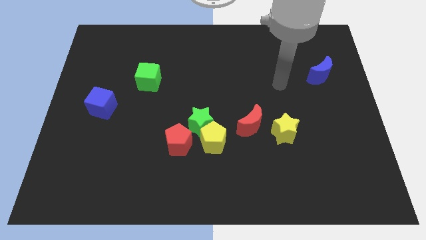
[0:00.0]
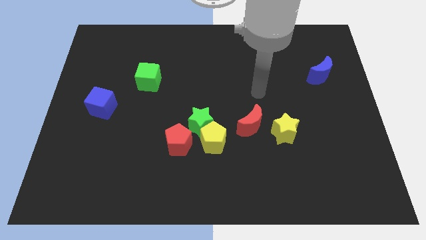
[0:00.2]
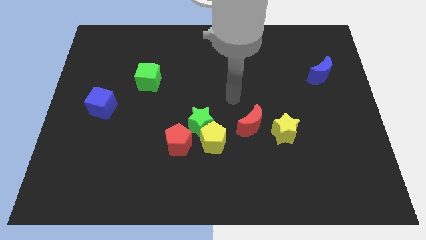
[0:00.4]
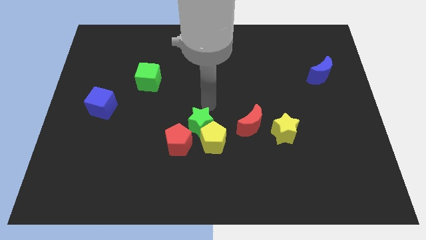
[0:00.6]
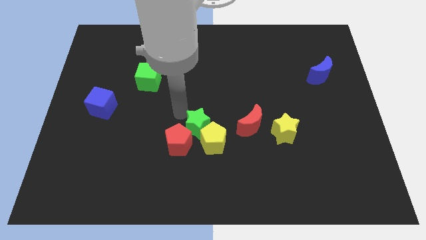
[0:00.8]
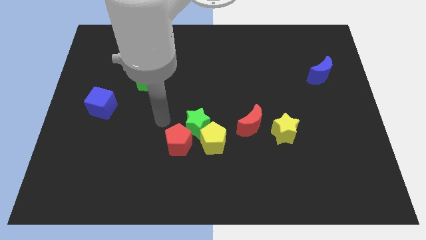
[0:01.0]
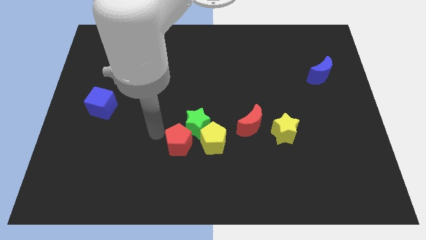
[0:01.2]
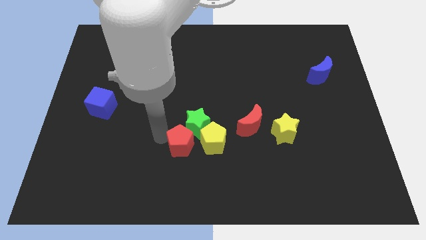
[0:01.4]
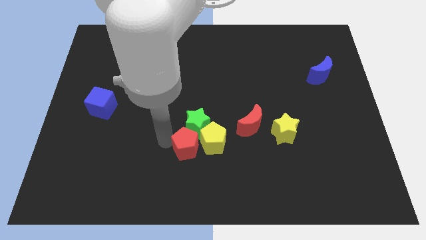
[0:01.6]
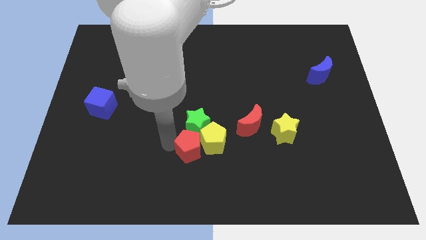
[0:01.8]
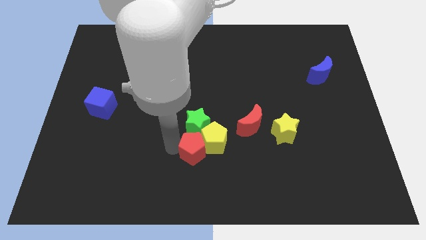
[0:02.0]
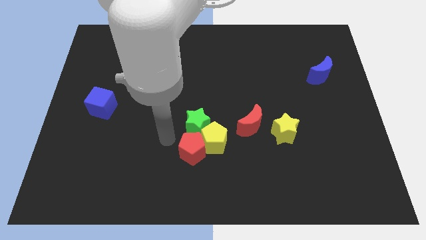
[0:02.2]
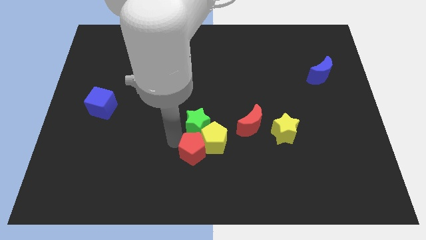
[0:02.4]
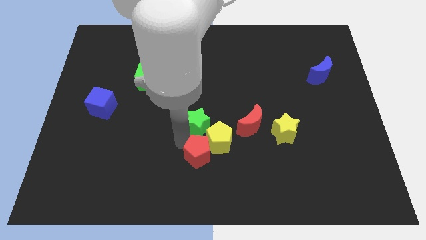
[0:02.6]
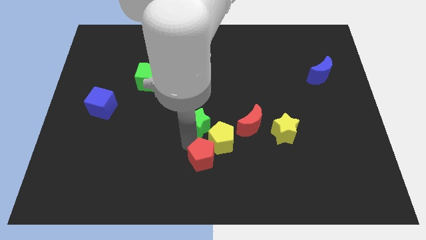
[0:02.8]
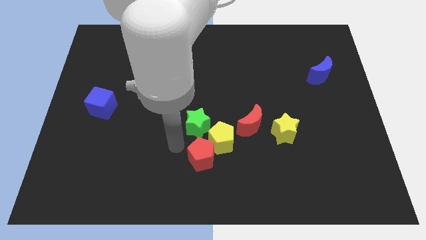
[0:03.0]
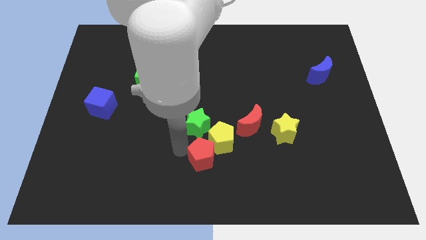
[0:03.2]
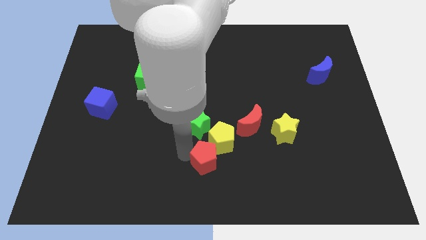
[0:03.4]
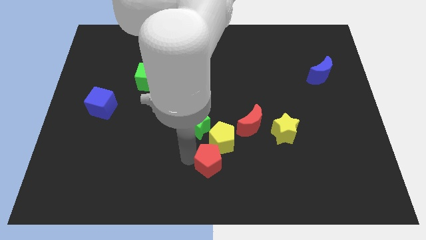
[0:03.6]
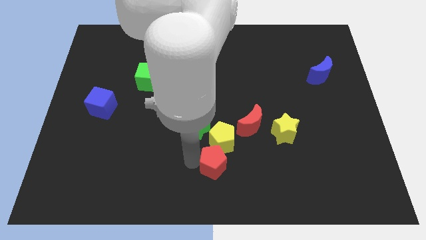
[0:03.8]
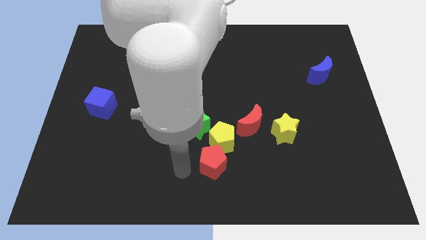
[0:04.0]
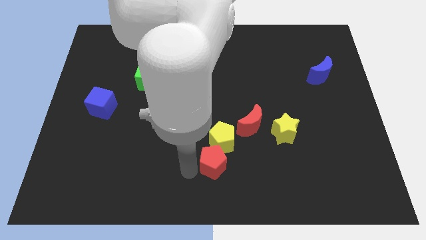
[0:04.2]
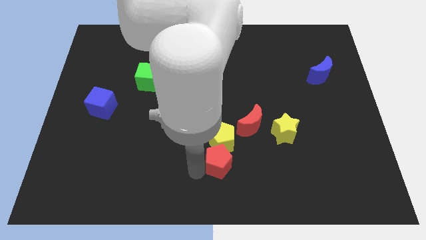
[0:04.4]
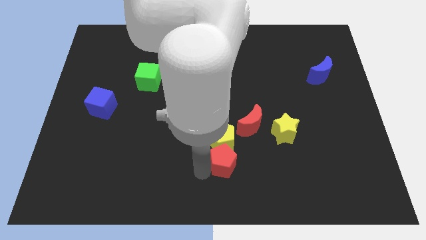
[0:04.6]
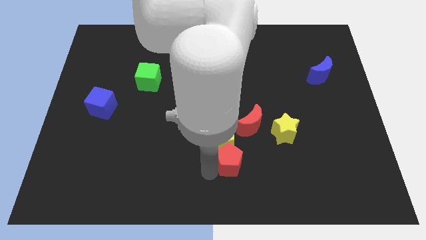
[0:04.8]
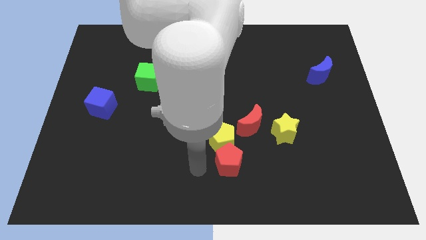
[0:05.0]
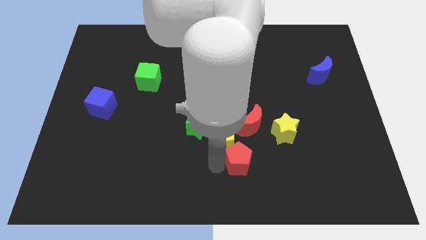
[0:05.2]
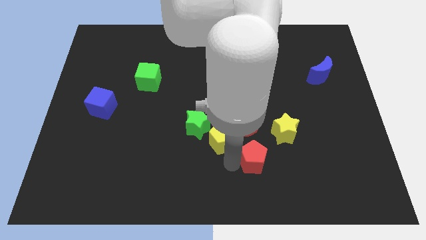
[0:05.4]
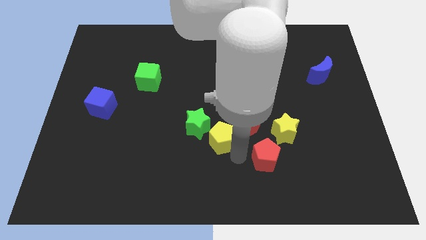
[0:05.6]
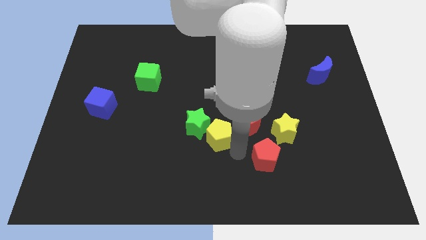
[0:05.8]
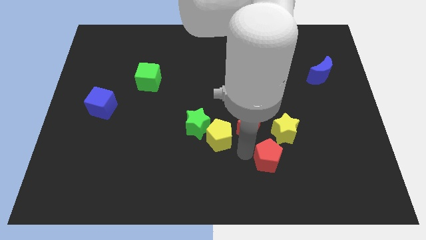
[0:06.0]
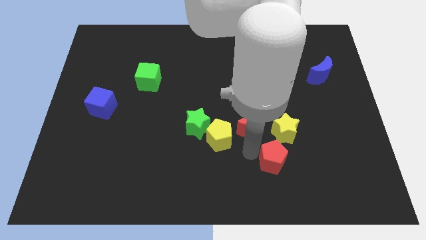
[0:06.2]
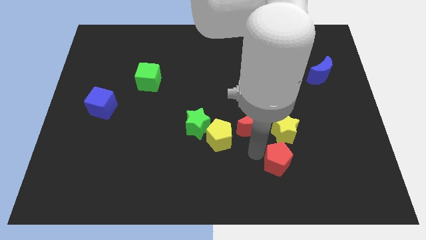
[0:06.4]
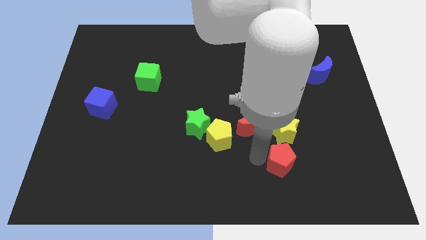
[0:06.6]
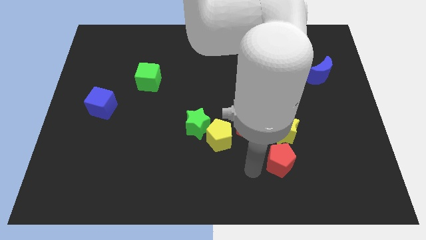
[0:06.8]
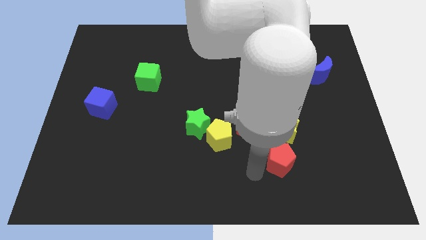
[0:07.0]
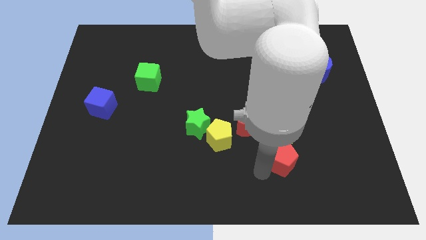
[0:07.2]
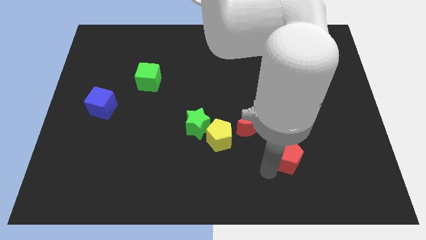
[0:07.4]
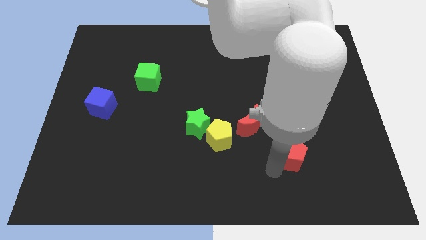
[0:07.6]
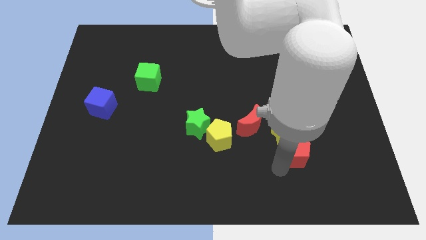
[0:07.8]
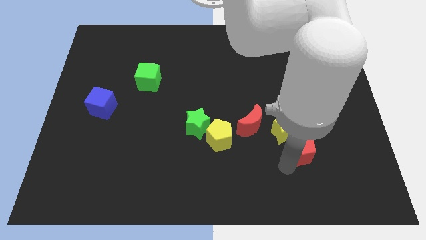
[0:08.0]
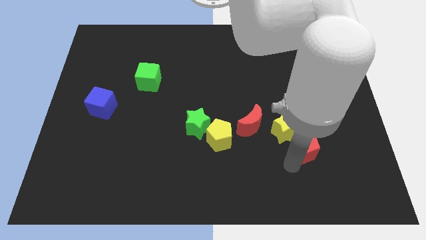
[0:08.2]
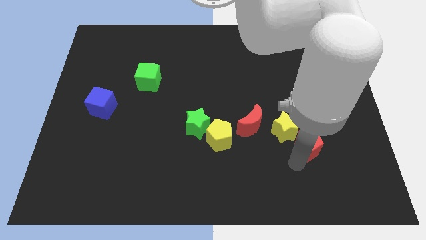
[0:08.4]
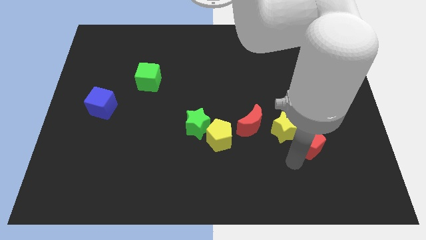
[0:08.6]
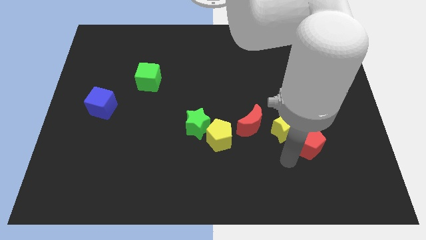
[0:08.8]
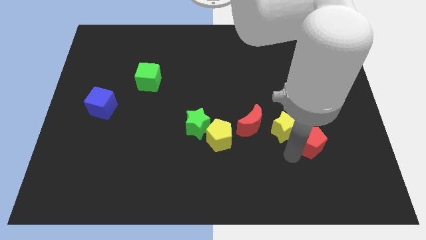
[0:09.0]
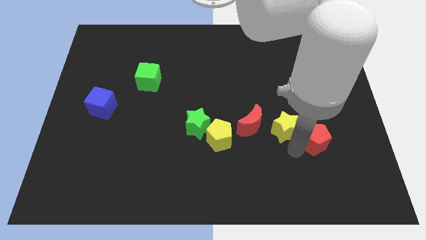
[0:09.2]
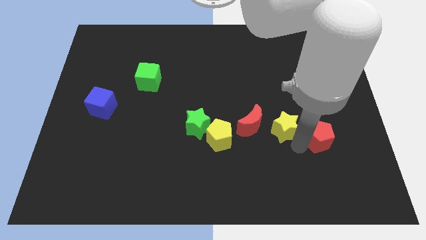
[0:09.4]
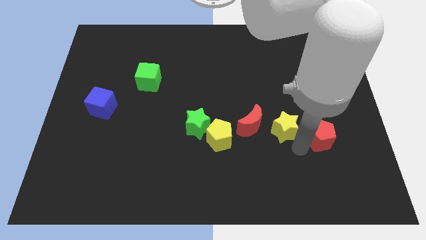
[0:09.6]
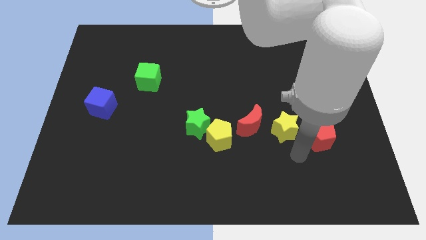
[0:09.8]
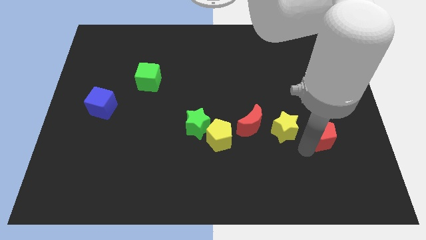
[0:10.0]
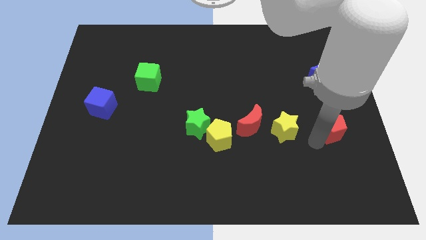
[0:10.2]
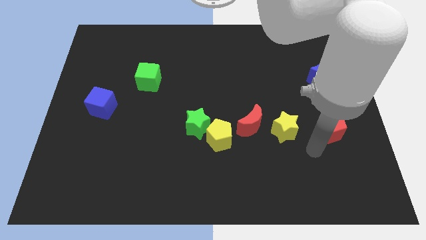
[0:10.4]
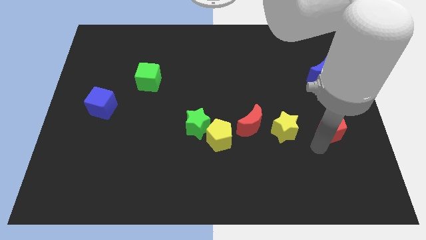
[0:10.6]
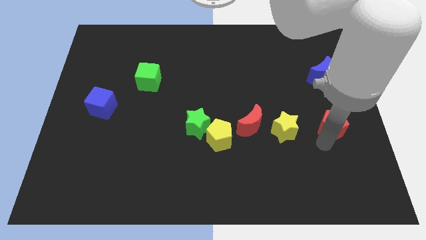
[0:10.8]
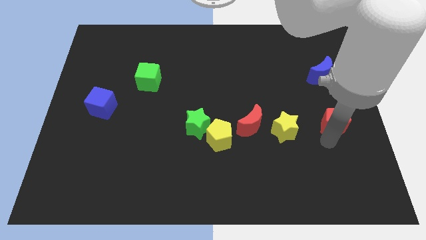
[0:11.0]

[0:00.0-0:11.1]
slide the red pentagon to the center right

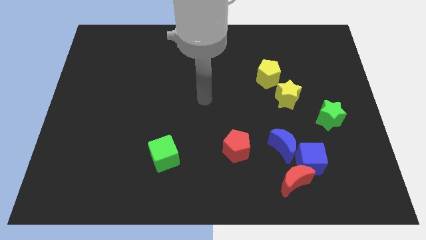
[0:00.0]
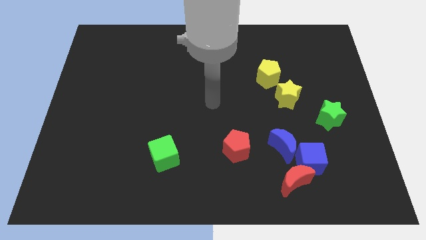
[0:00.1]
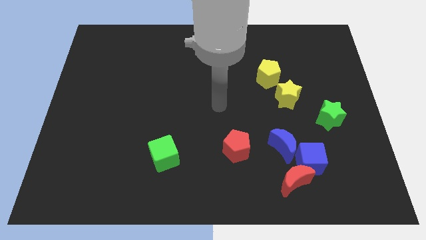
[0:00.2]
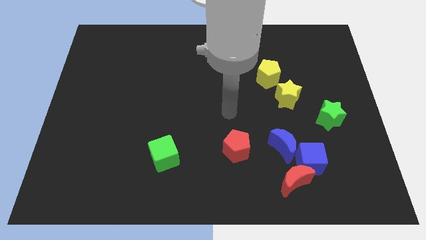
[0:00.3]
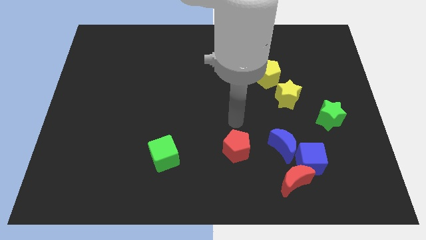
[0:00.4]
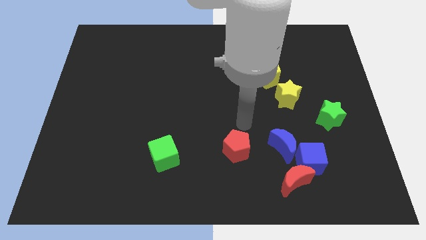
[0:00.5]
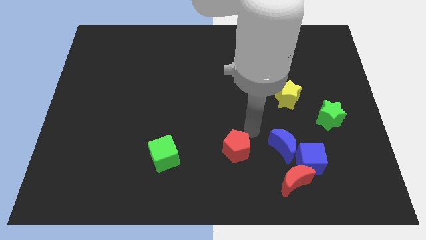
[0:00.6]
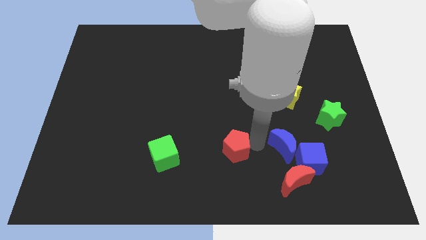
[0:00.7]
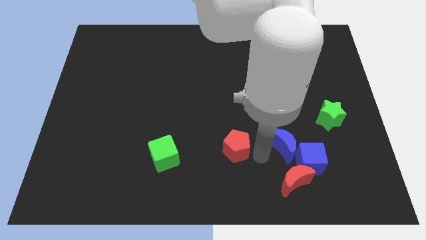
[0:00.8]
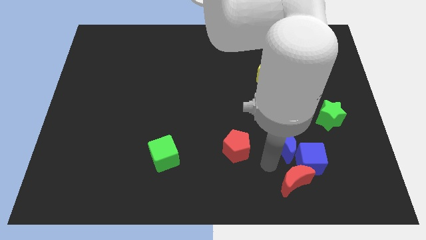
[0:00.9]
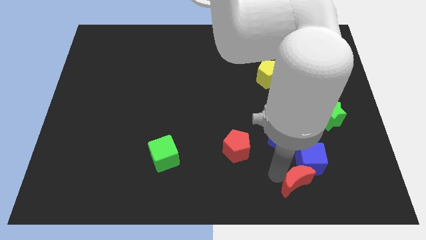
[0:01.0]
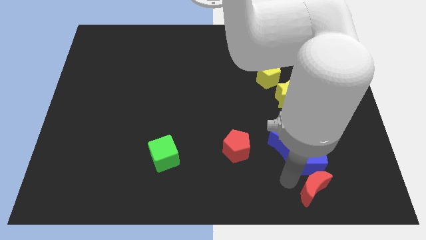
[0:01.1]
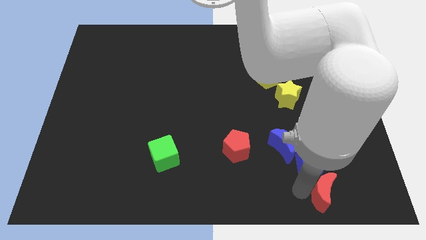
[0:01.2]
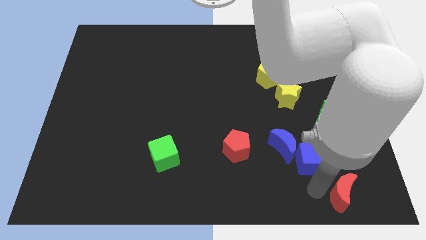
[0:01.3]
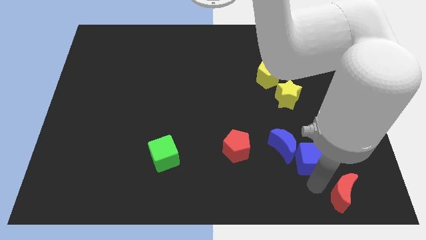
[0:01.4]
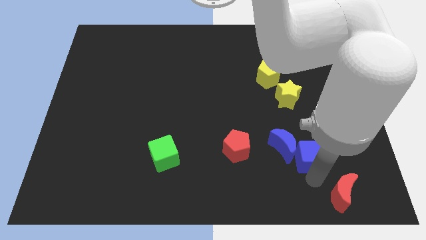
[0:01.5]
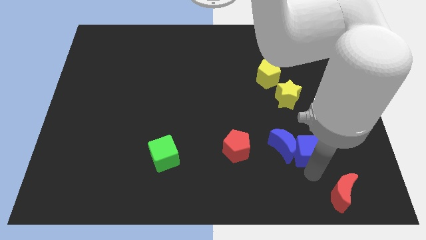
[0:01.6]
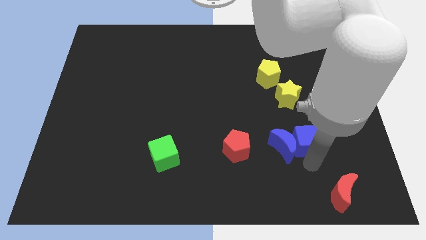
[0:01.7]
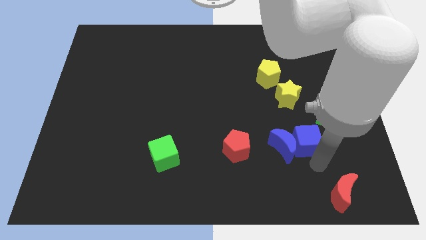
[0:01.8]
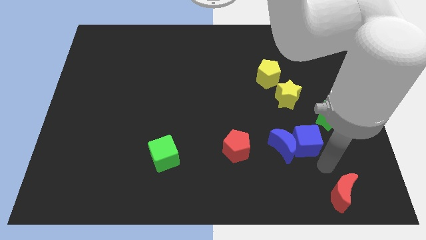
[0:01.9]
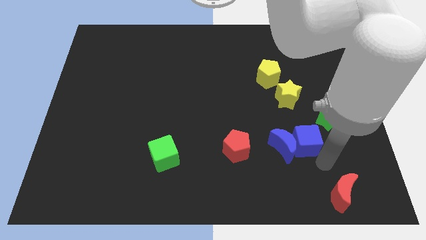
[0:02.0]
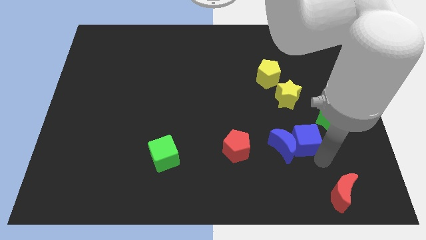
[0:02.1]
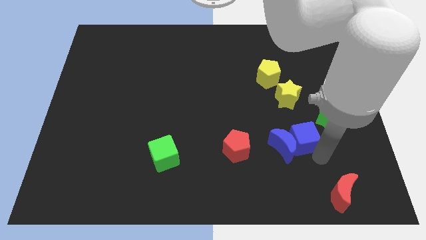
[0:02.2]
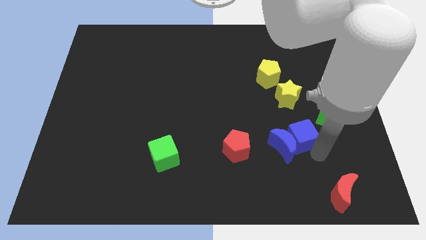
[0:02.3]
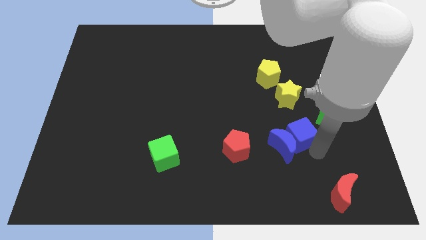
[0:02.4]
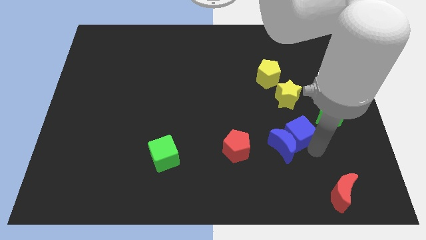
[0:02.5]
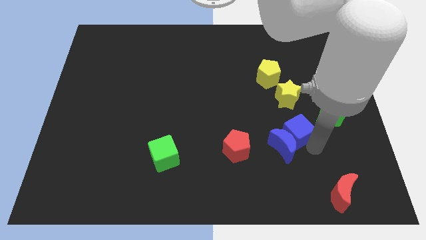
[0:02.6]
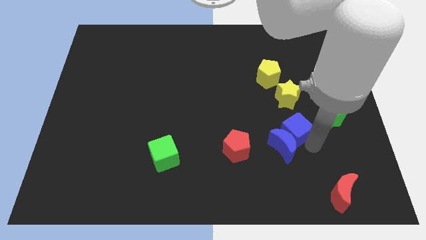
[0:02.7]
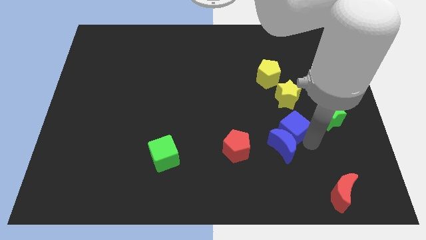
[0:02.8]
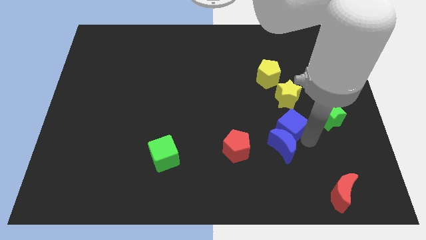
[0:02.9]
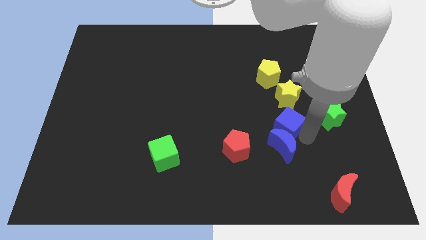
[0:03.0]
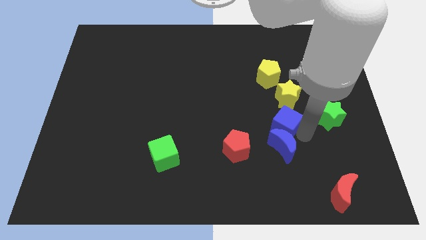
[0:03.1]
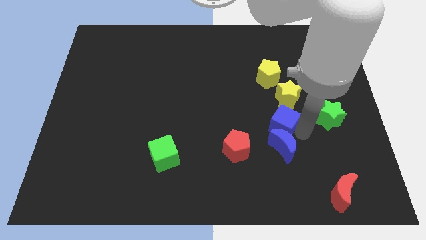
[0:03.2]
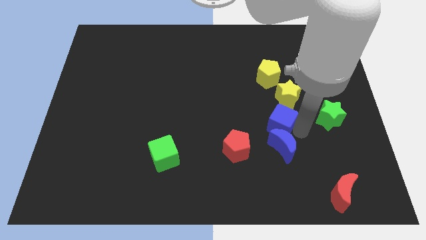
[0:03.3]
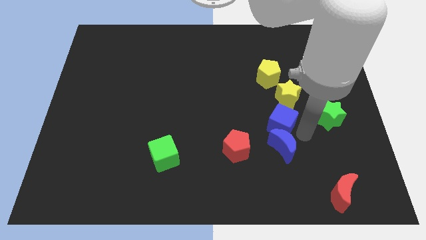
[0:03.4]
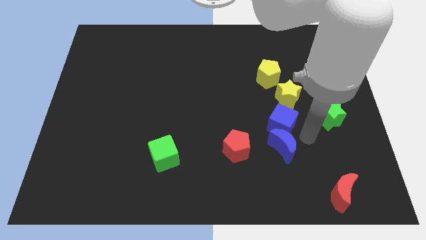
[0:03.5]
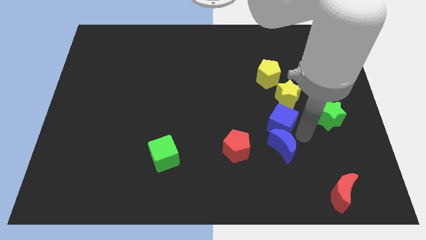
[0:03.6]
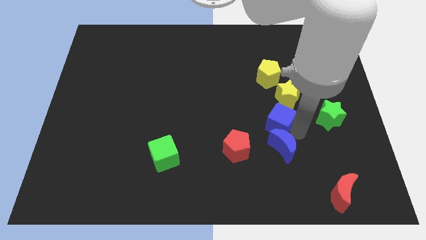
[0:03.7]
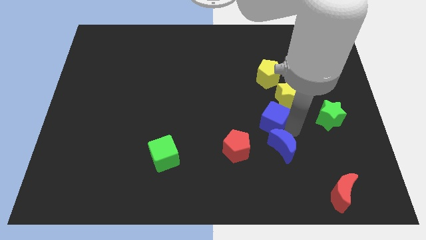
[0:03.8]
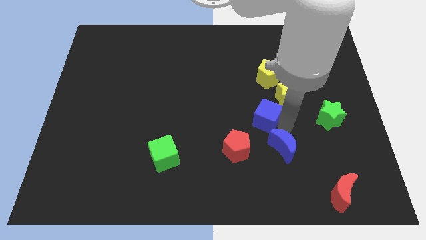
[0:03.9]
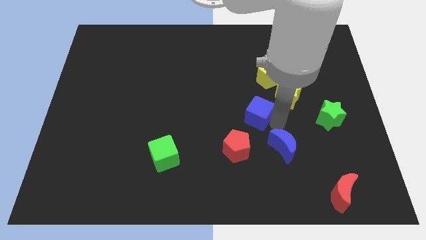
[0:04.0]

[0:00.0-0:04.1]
slide the blue cube to the middle of the board
